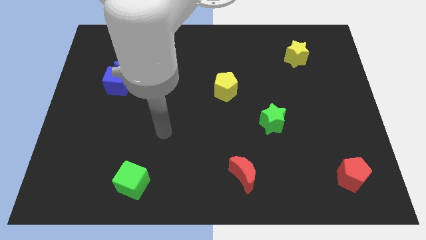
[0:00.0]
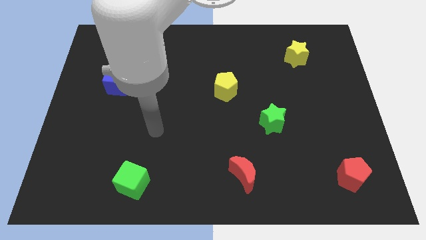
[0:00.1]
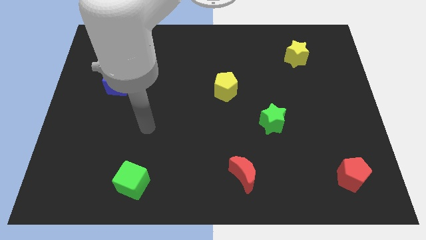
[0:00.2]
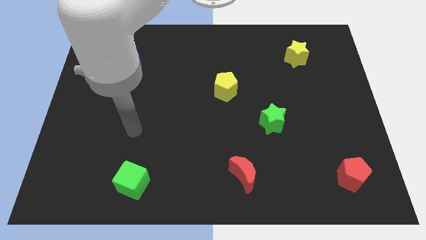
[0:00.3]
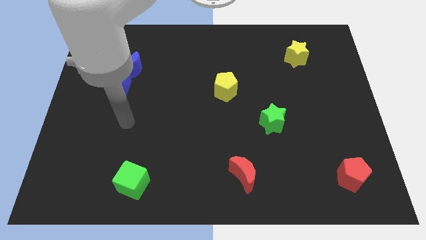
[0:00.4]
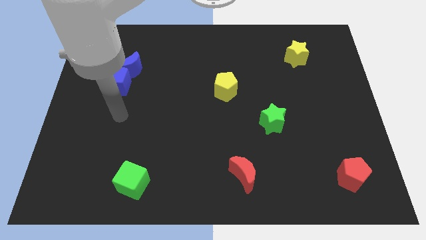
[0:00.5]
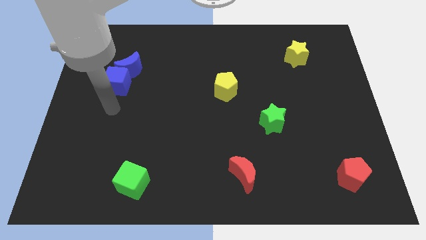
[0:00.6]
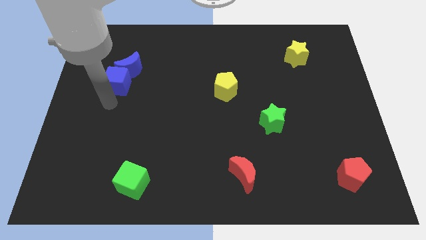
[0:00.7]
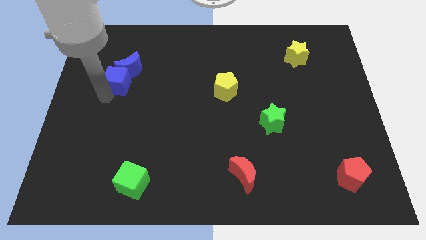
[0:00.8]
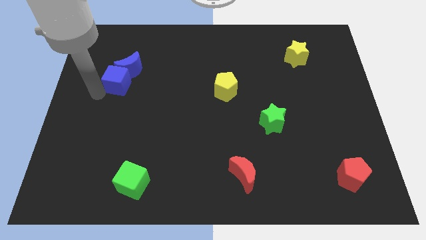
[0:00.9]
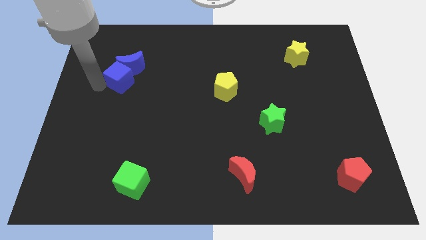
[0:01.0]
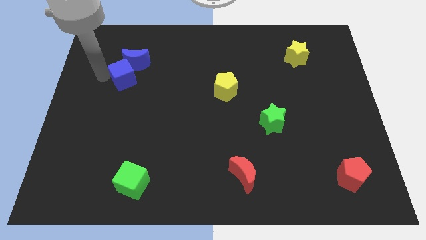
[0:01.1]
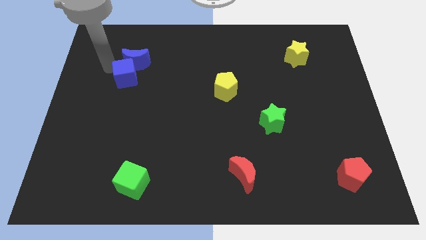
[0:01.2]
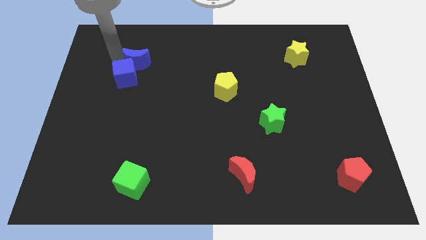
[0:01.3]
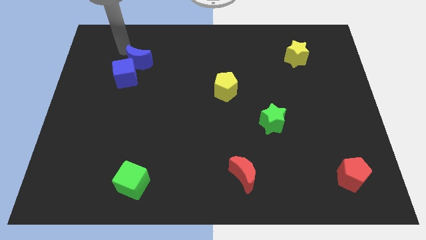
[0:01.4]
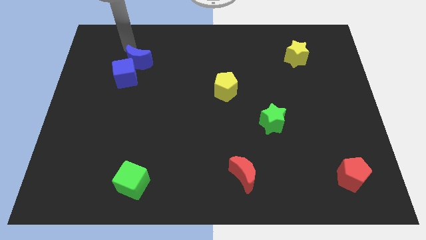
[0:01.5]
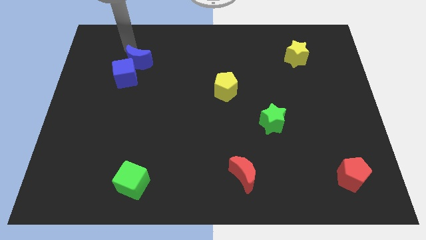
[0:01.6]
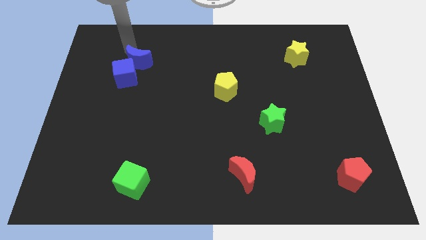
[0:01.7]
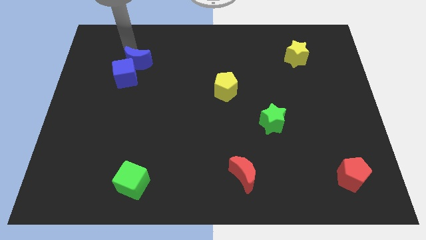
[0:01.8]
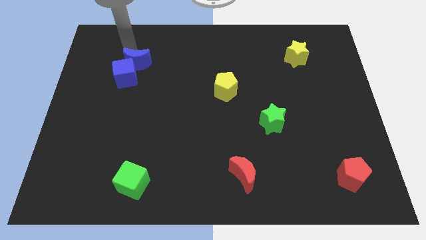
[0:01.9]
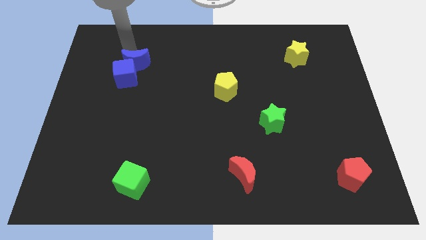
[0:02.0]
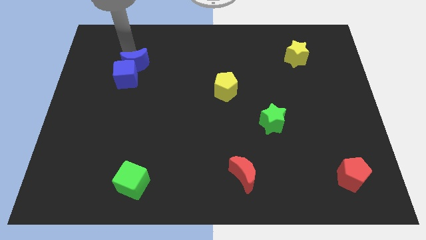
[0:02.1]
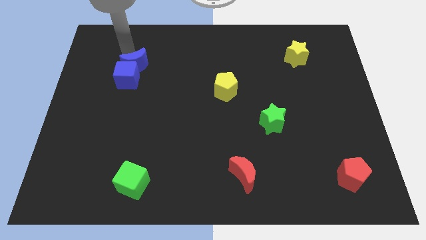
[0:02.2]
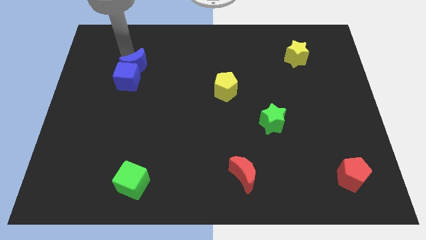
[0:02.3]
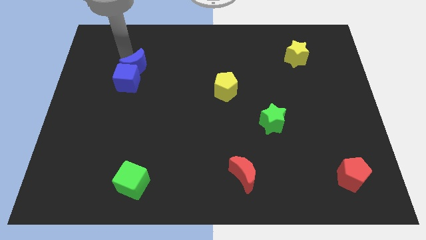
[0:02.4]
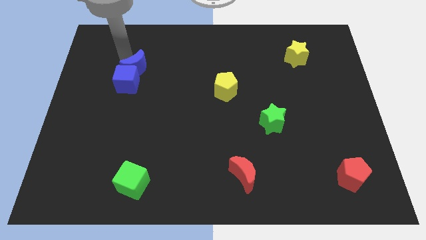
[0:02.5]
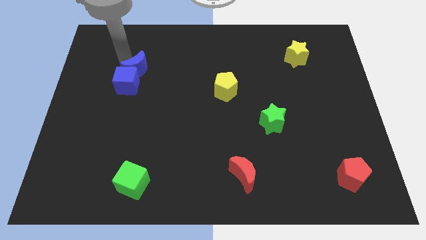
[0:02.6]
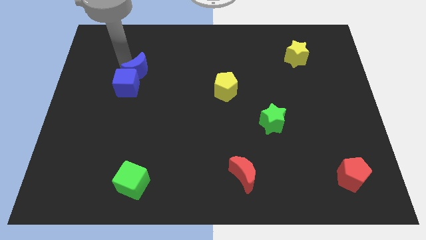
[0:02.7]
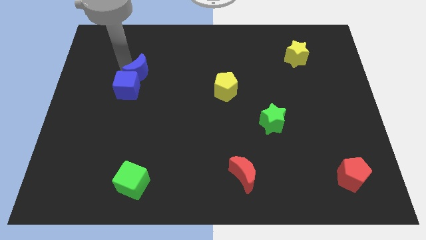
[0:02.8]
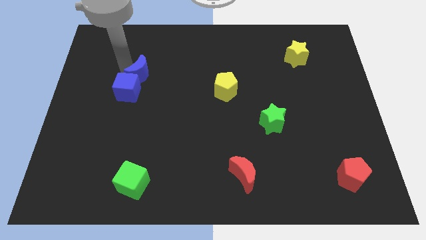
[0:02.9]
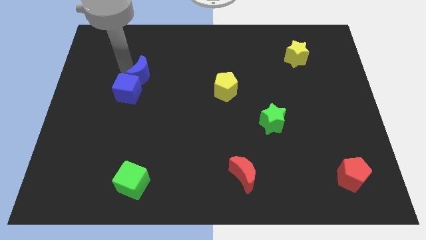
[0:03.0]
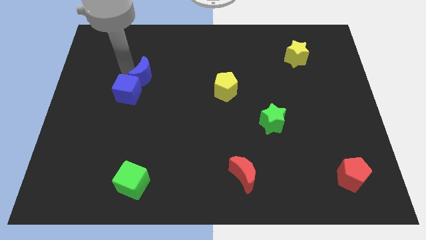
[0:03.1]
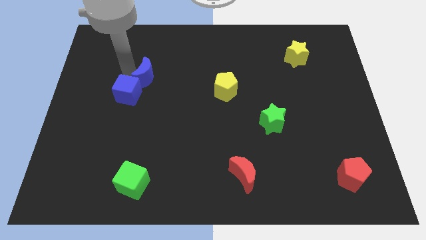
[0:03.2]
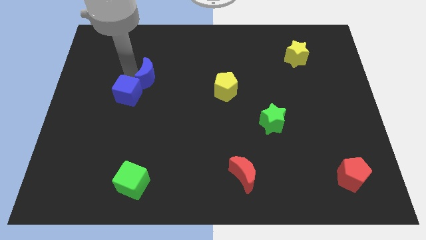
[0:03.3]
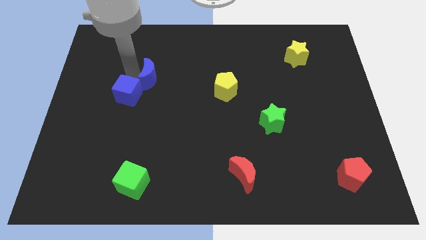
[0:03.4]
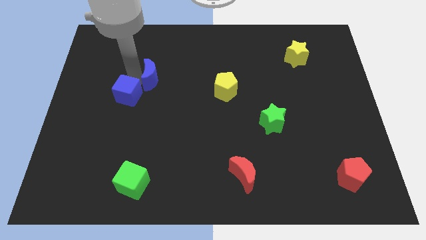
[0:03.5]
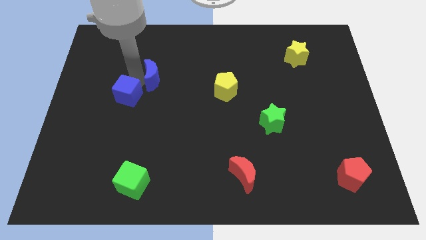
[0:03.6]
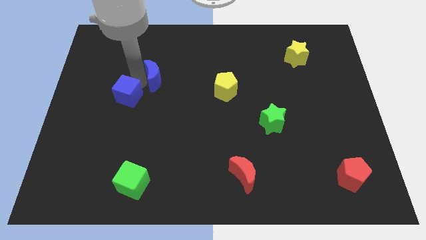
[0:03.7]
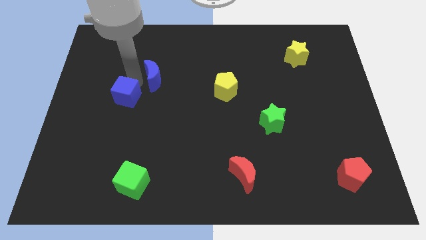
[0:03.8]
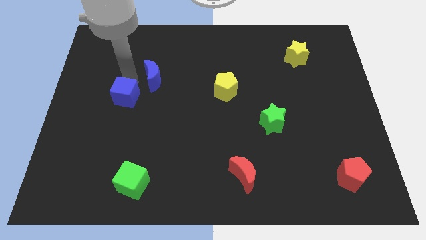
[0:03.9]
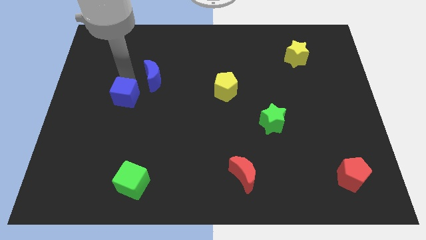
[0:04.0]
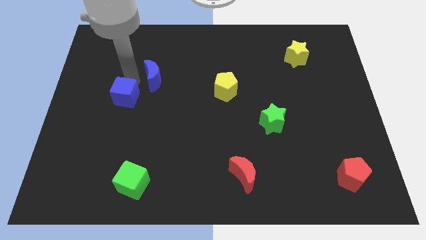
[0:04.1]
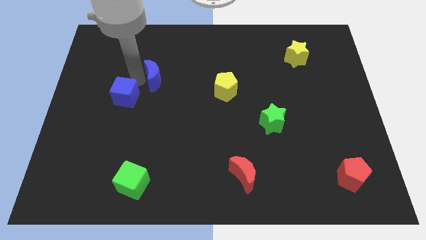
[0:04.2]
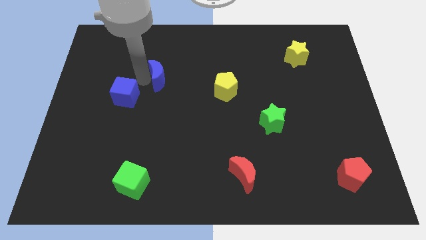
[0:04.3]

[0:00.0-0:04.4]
slide the blue moon right a bit

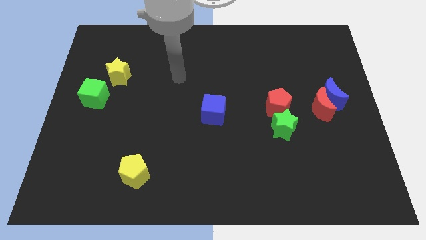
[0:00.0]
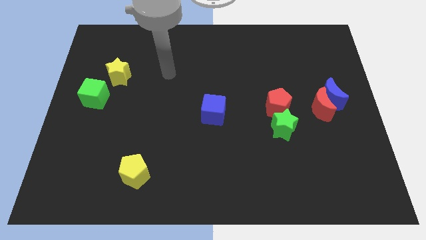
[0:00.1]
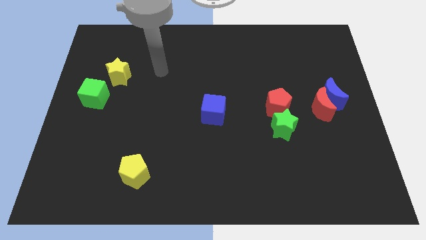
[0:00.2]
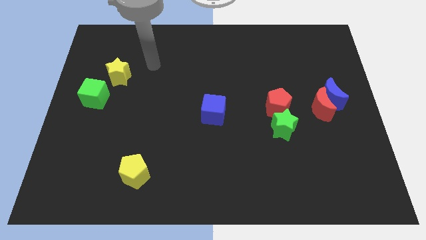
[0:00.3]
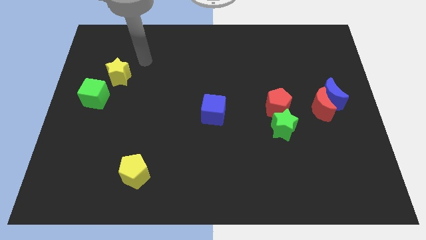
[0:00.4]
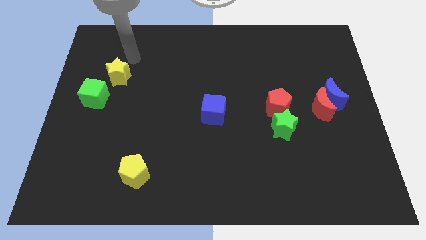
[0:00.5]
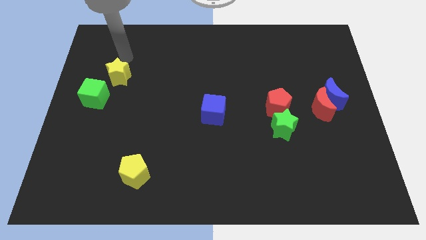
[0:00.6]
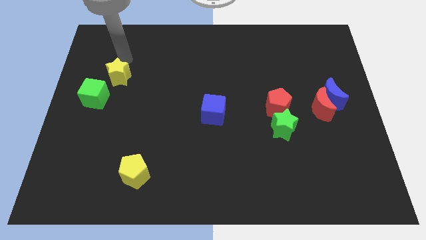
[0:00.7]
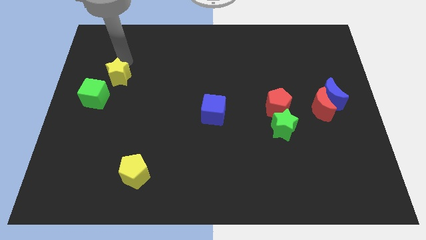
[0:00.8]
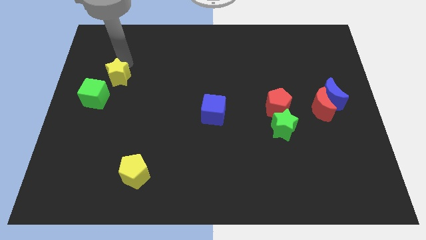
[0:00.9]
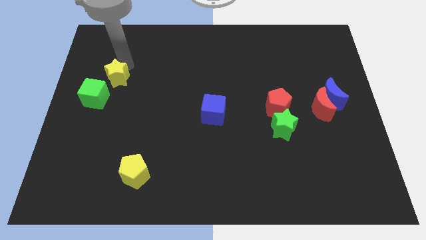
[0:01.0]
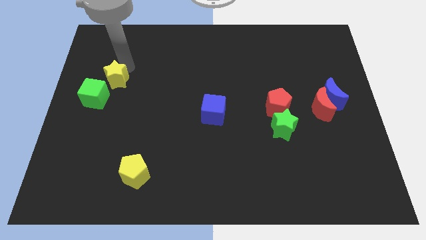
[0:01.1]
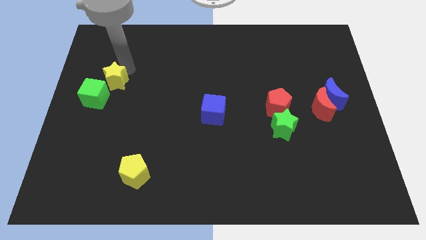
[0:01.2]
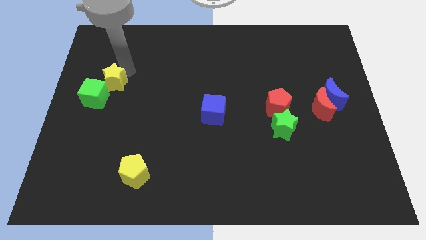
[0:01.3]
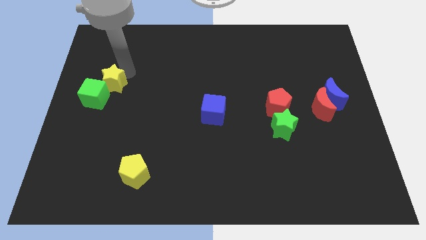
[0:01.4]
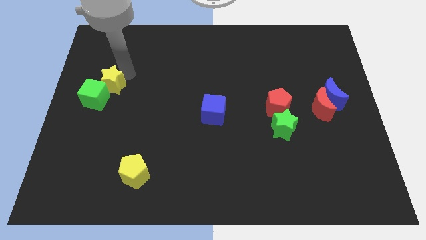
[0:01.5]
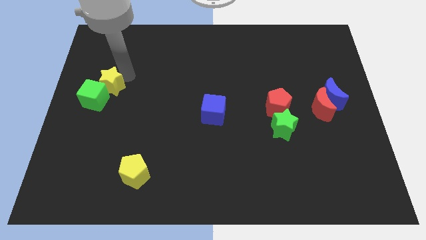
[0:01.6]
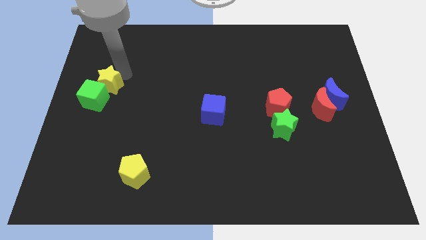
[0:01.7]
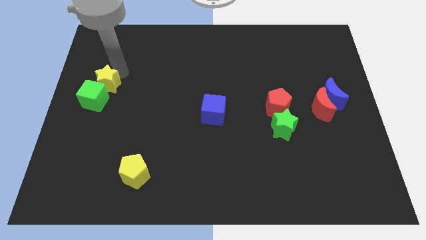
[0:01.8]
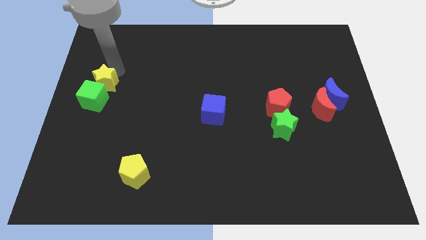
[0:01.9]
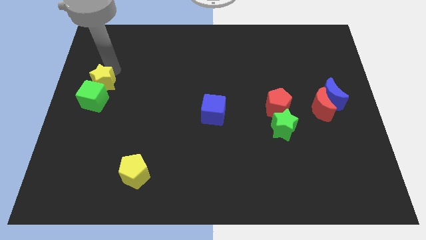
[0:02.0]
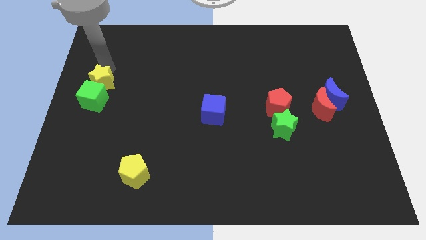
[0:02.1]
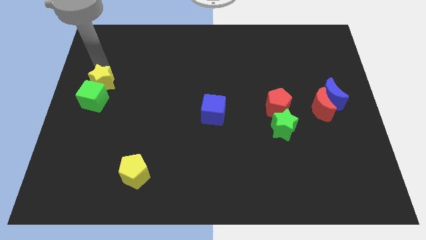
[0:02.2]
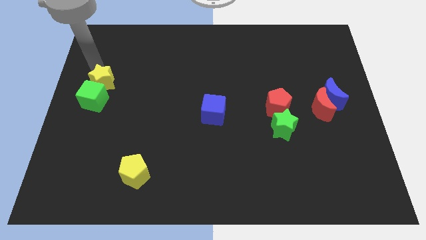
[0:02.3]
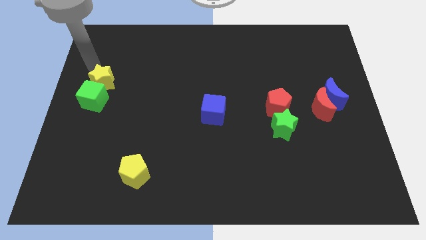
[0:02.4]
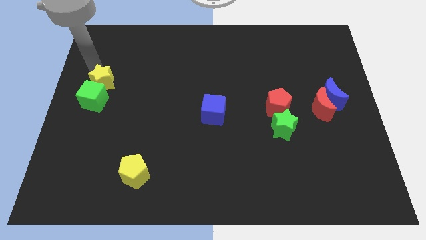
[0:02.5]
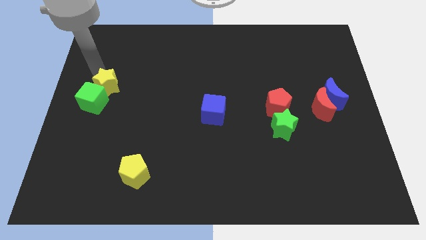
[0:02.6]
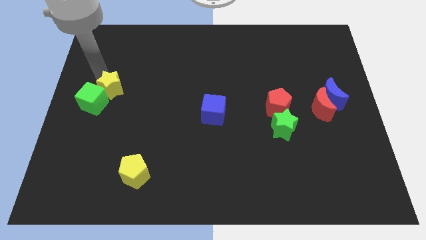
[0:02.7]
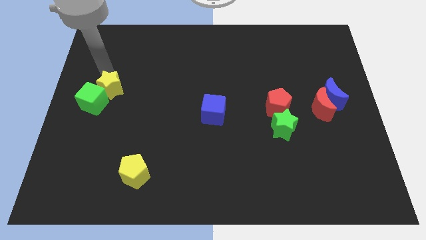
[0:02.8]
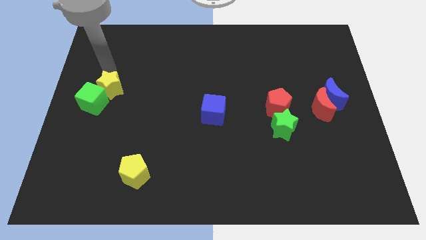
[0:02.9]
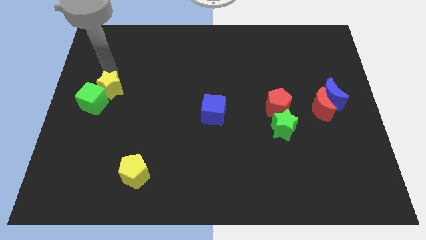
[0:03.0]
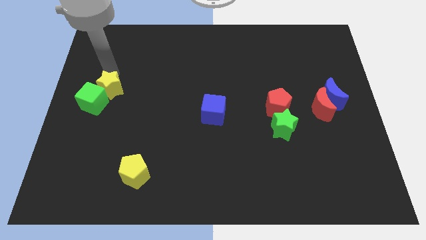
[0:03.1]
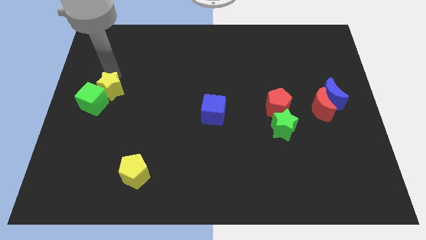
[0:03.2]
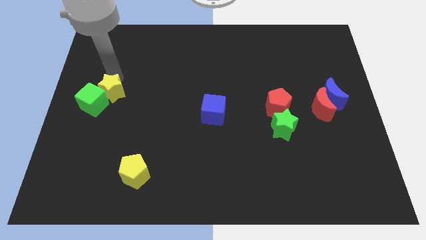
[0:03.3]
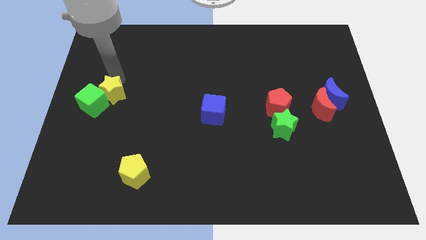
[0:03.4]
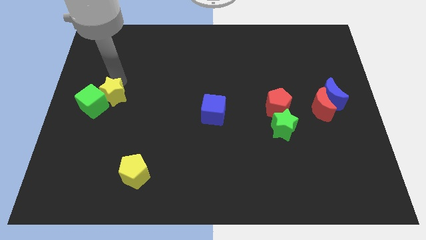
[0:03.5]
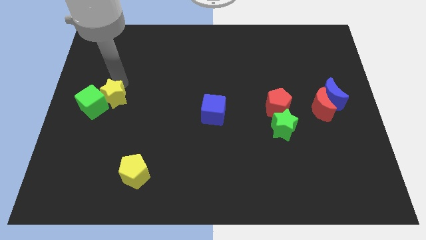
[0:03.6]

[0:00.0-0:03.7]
slide the yellow star down slightly
